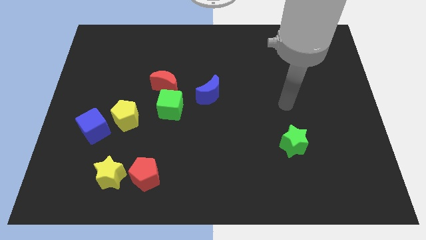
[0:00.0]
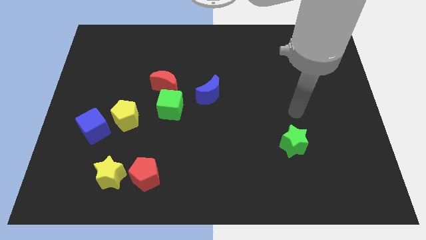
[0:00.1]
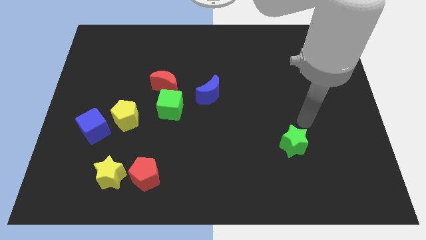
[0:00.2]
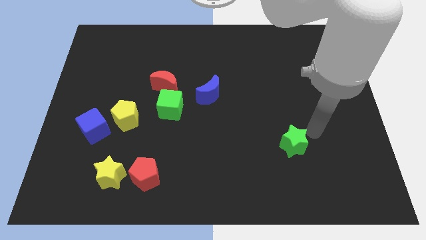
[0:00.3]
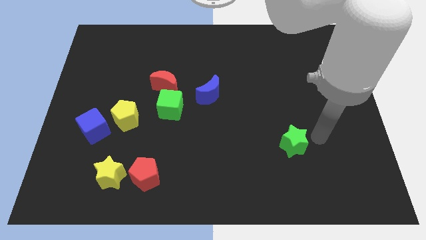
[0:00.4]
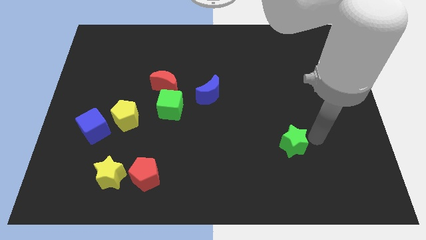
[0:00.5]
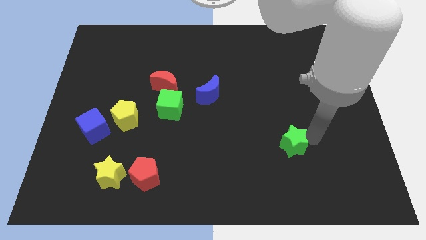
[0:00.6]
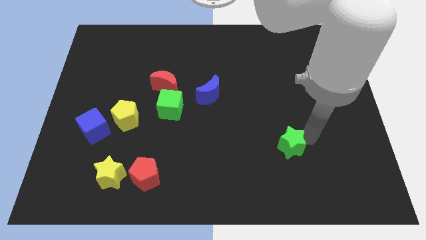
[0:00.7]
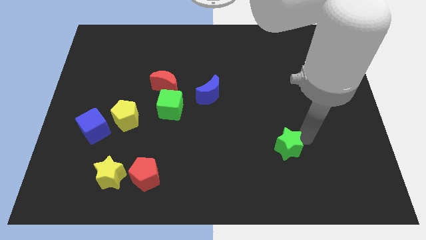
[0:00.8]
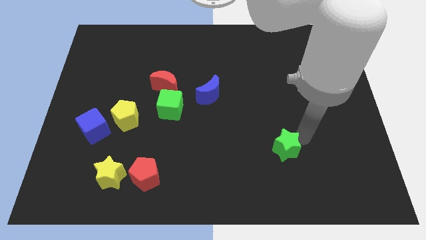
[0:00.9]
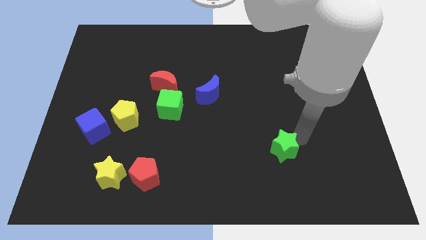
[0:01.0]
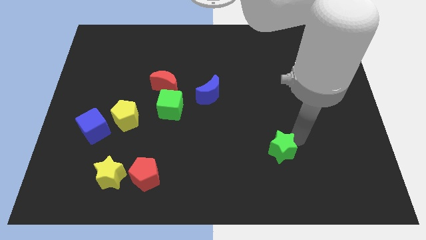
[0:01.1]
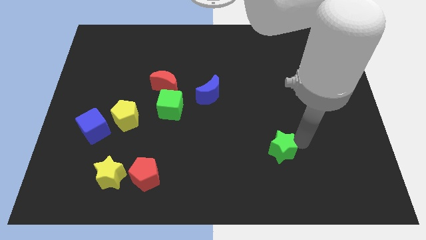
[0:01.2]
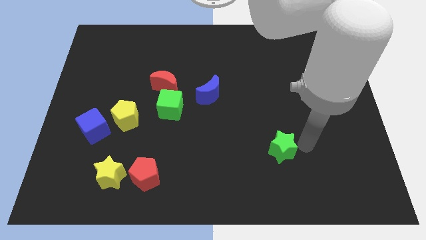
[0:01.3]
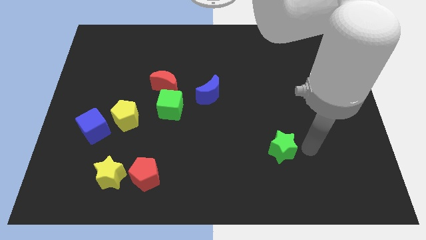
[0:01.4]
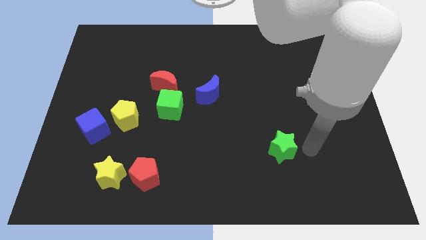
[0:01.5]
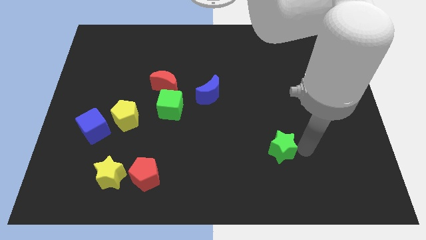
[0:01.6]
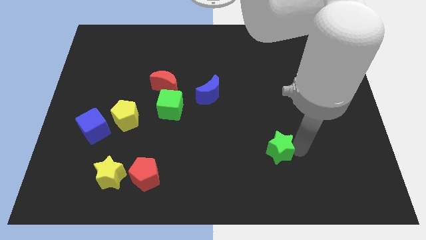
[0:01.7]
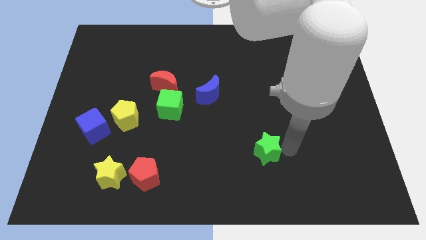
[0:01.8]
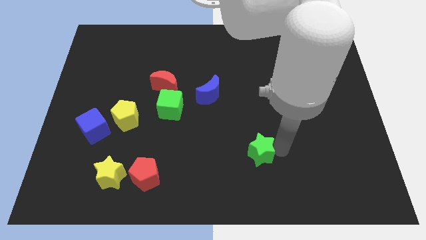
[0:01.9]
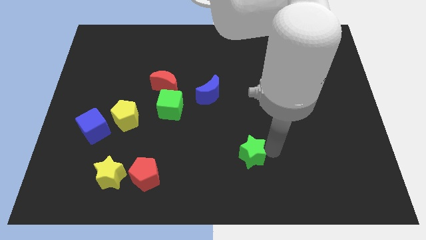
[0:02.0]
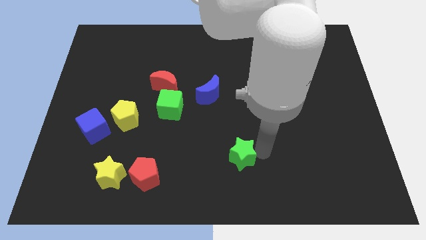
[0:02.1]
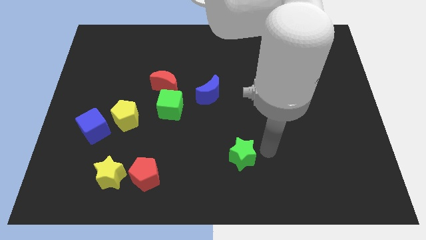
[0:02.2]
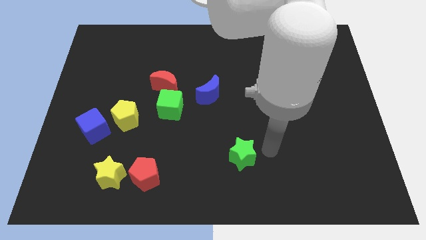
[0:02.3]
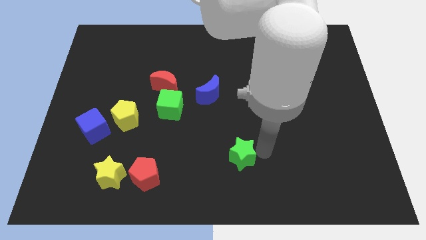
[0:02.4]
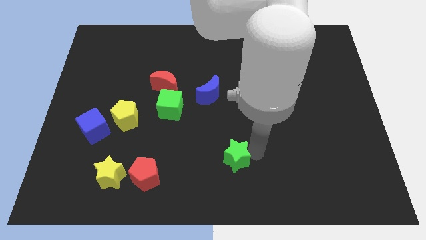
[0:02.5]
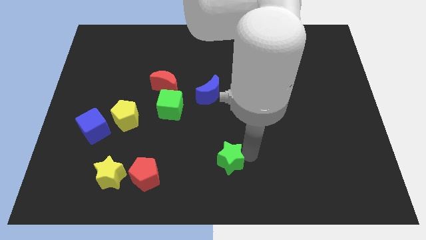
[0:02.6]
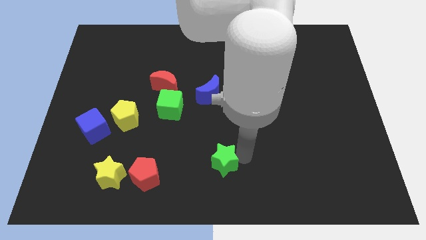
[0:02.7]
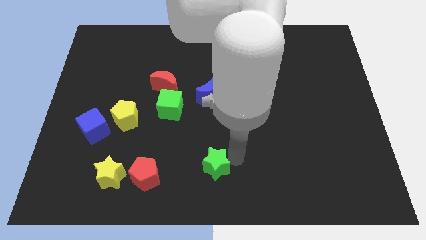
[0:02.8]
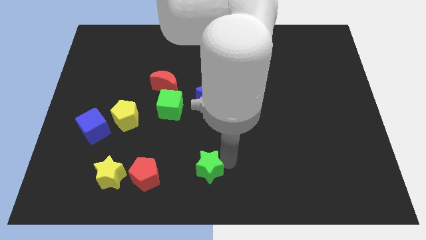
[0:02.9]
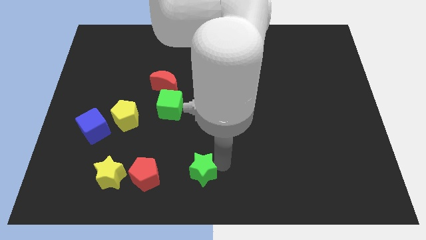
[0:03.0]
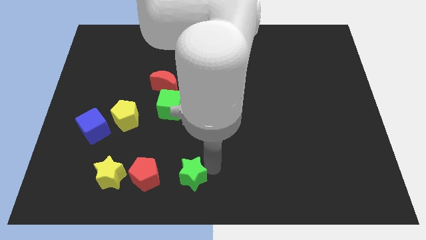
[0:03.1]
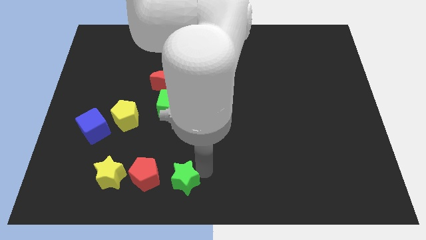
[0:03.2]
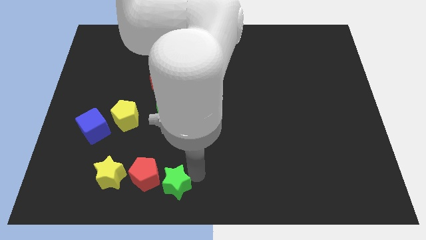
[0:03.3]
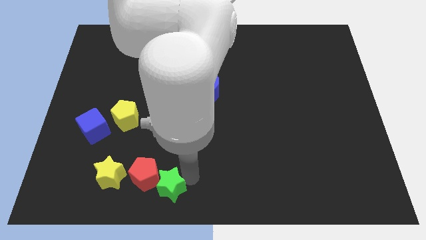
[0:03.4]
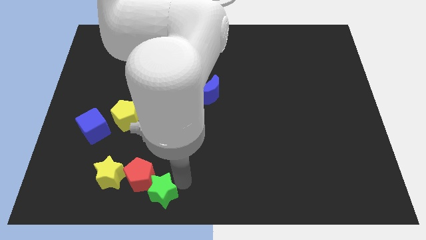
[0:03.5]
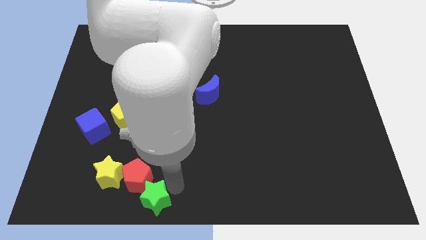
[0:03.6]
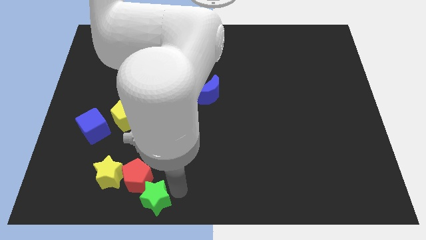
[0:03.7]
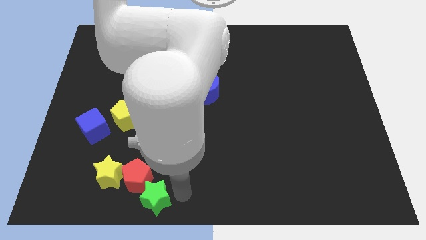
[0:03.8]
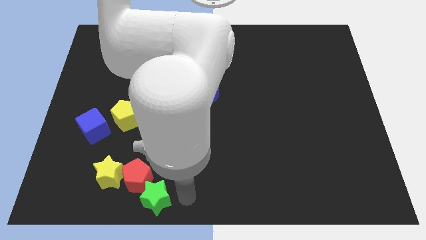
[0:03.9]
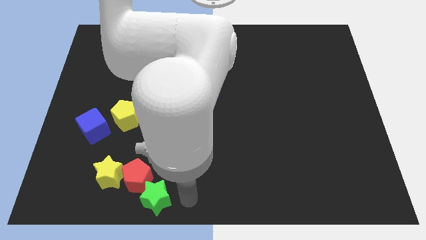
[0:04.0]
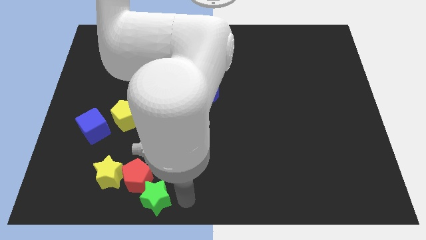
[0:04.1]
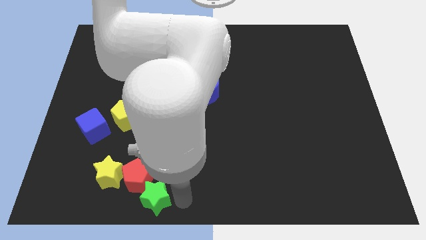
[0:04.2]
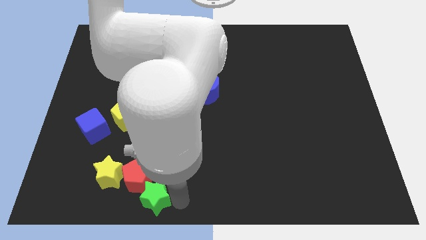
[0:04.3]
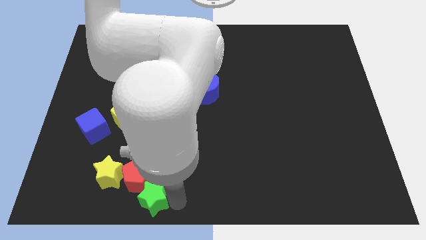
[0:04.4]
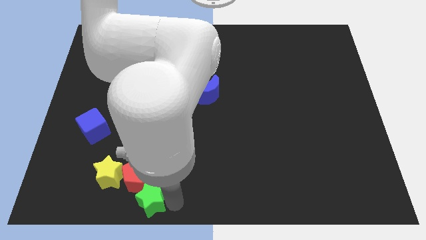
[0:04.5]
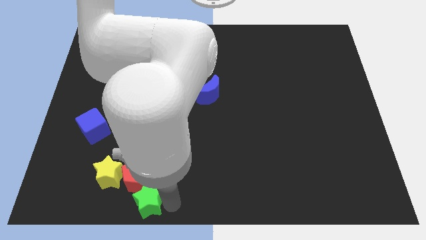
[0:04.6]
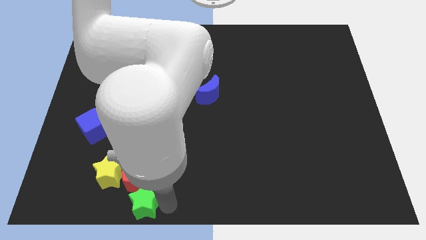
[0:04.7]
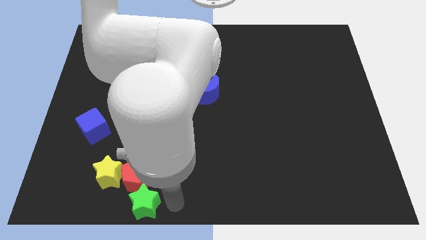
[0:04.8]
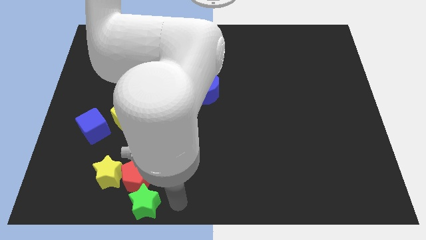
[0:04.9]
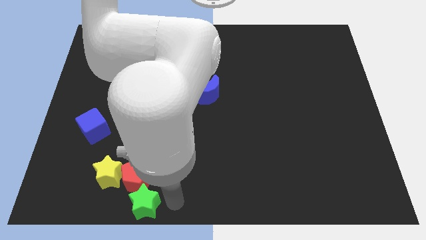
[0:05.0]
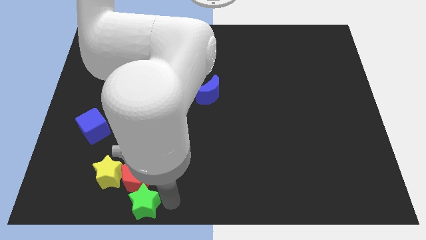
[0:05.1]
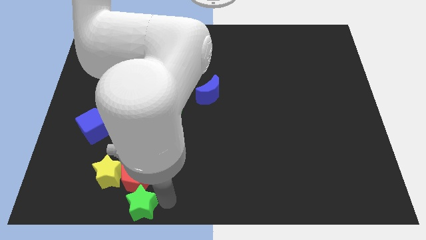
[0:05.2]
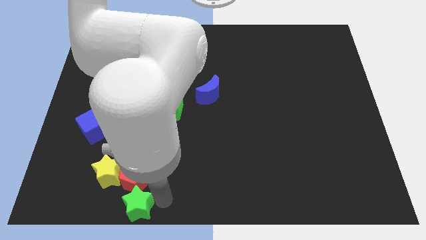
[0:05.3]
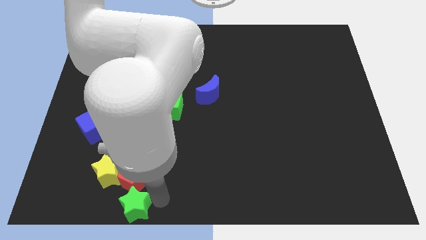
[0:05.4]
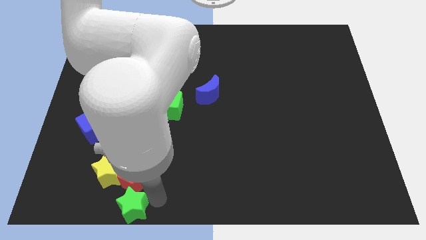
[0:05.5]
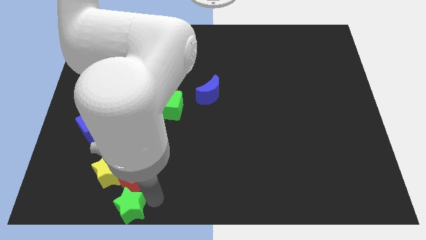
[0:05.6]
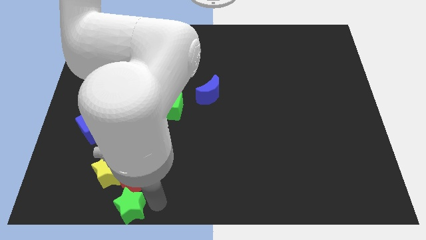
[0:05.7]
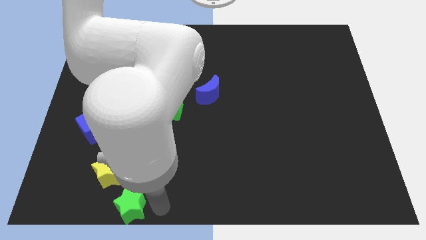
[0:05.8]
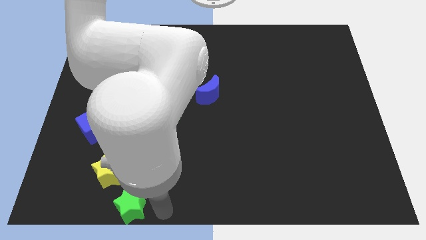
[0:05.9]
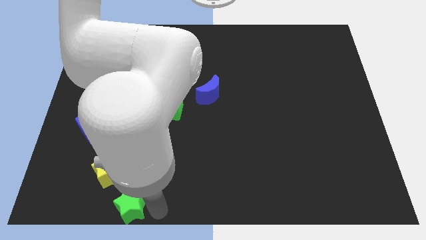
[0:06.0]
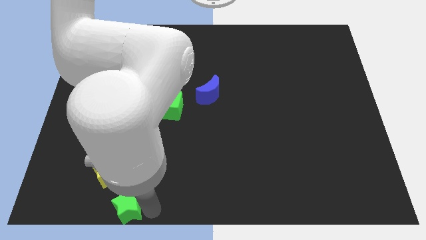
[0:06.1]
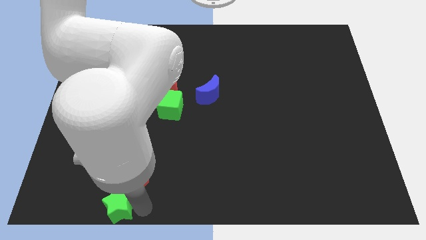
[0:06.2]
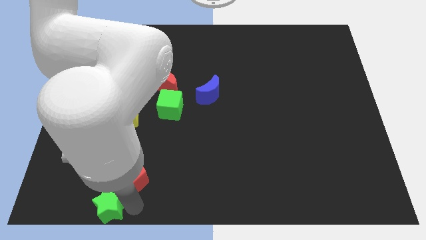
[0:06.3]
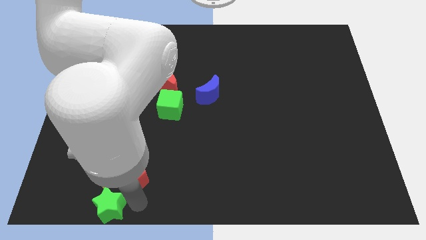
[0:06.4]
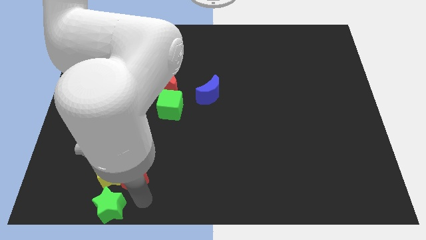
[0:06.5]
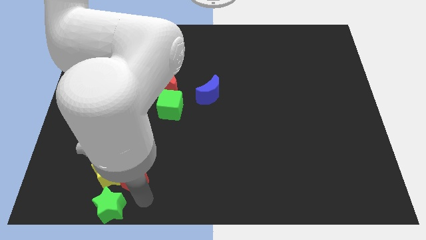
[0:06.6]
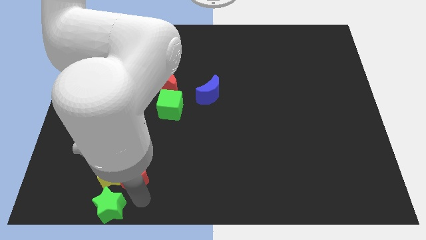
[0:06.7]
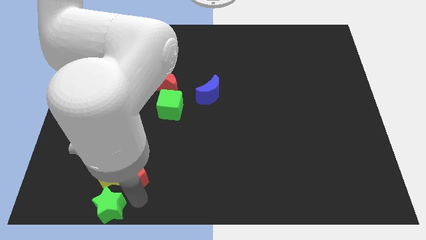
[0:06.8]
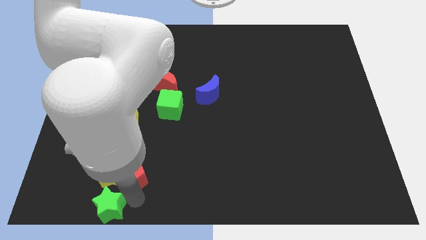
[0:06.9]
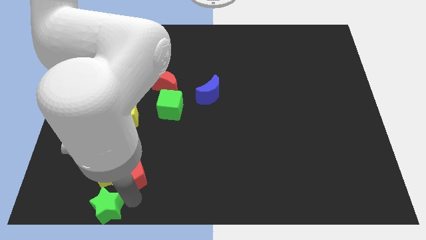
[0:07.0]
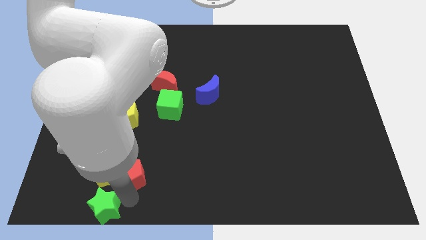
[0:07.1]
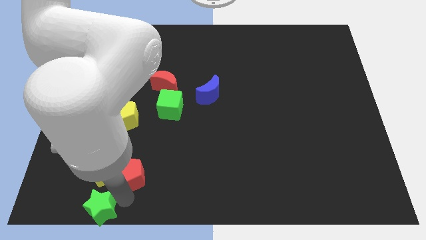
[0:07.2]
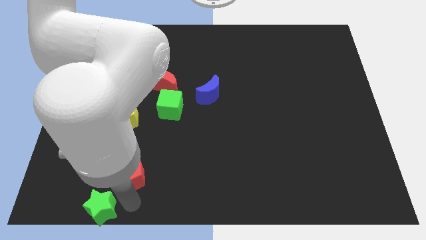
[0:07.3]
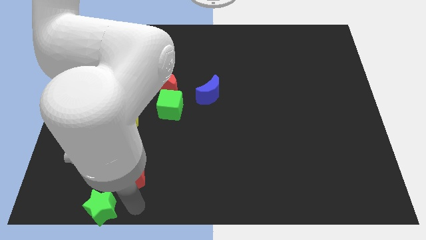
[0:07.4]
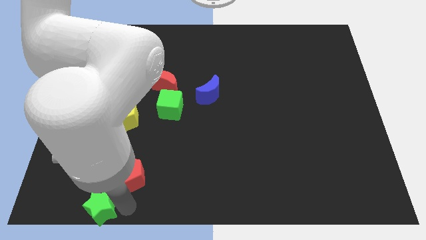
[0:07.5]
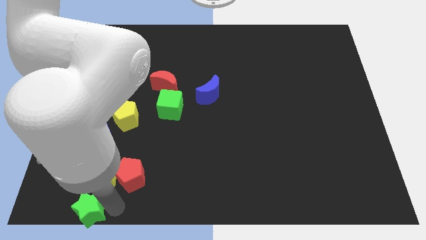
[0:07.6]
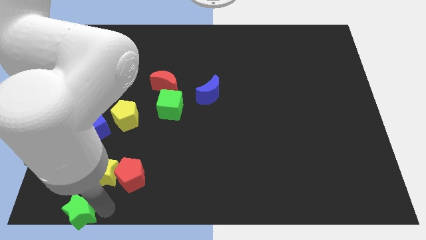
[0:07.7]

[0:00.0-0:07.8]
put the green star to the lower left corner

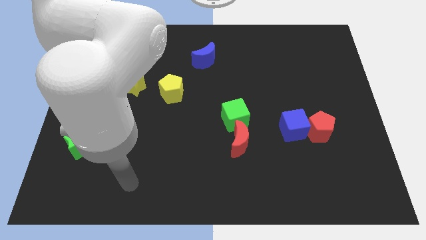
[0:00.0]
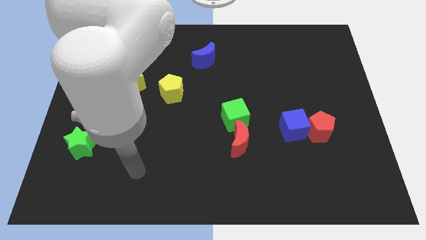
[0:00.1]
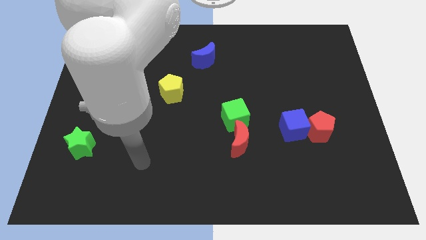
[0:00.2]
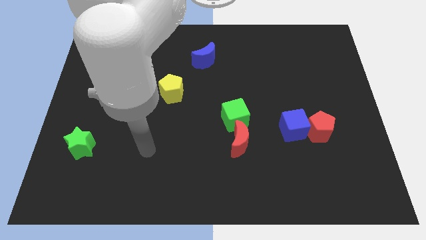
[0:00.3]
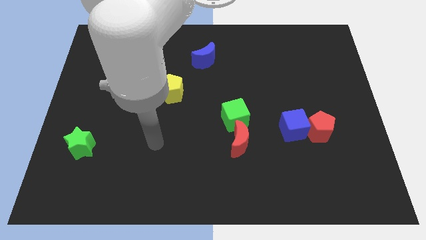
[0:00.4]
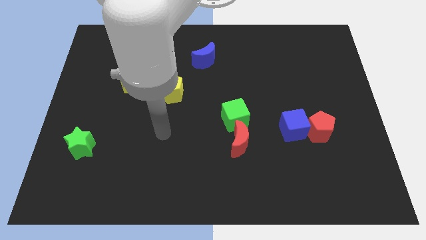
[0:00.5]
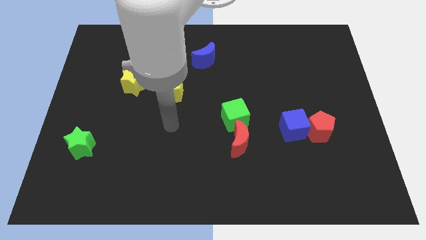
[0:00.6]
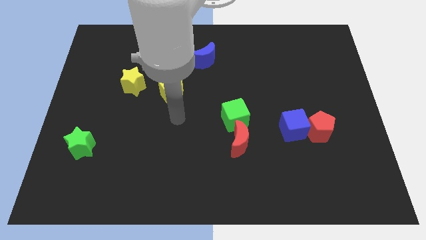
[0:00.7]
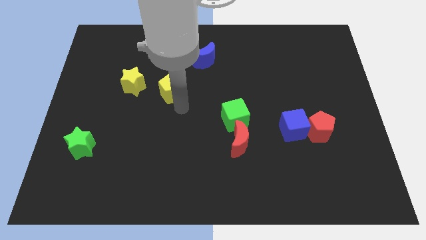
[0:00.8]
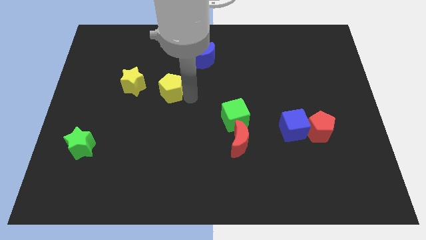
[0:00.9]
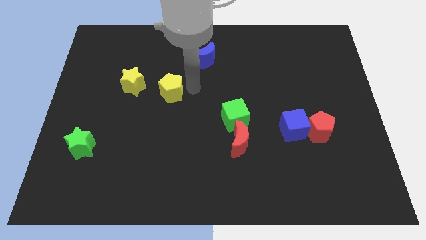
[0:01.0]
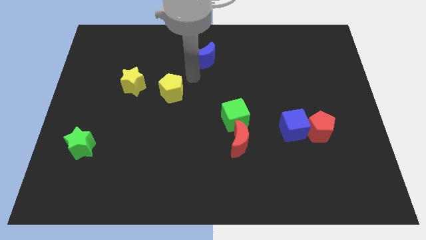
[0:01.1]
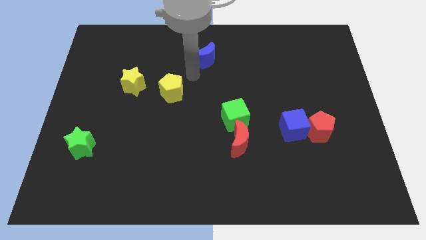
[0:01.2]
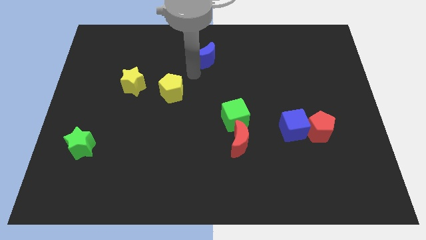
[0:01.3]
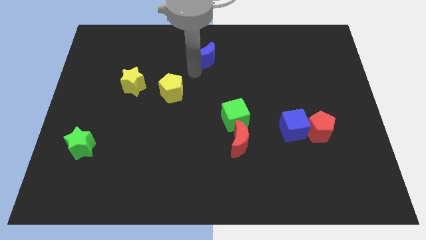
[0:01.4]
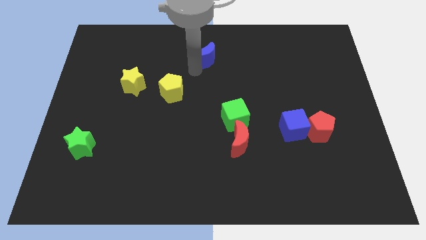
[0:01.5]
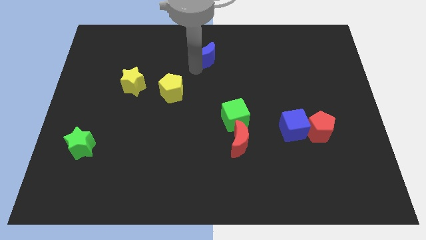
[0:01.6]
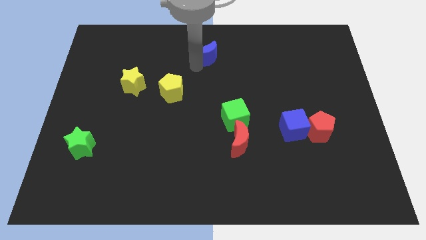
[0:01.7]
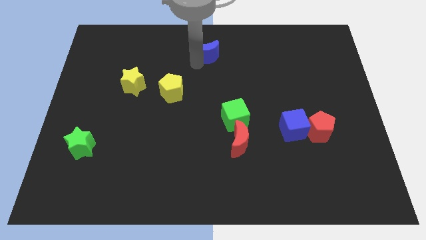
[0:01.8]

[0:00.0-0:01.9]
push the blue moon to the towards your base
